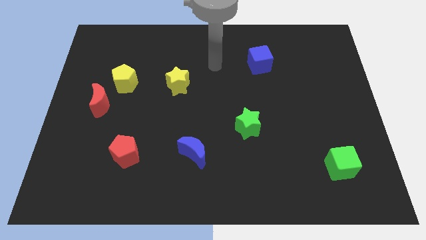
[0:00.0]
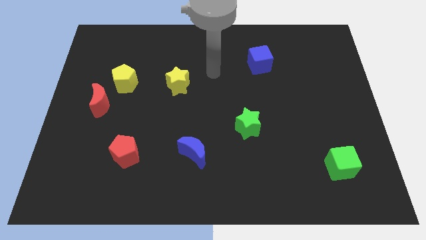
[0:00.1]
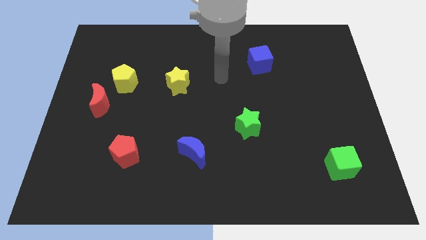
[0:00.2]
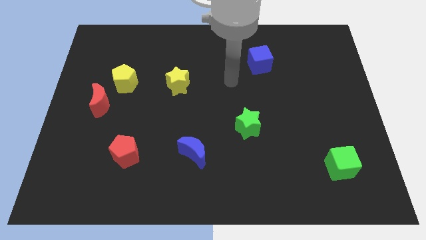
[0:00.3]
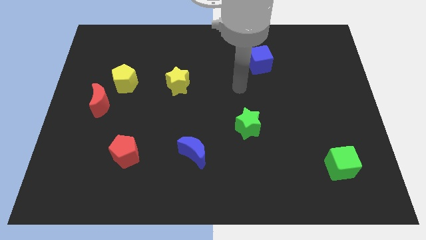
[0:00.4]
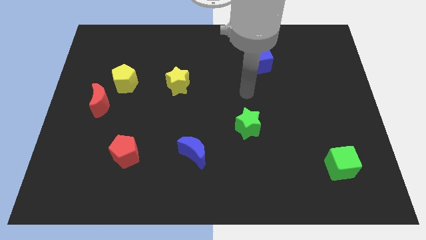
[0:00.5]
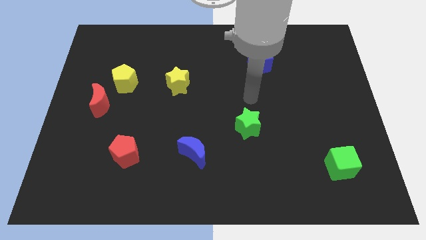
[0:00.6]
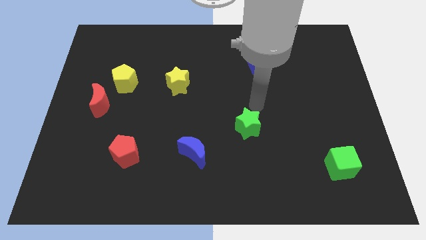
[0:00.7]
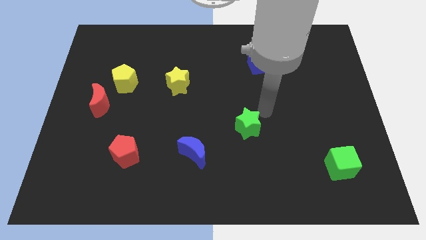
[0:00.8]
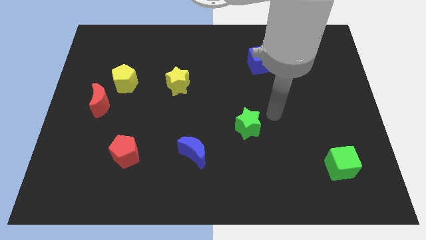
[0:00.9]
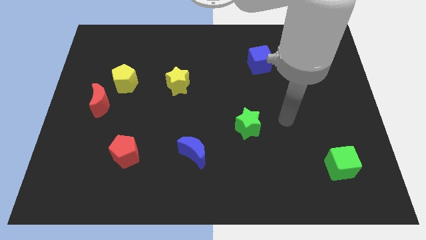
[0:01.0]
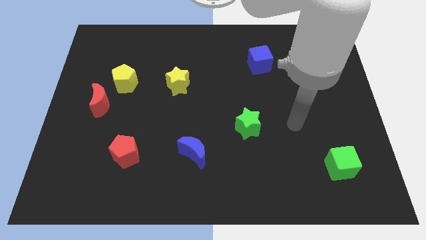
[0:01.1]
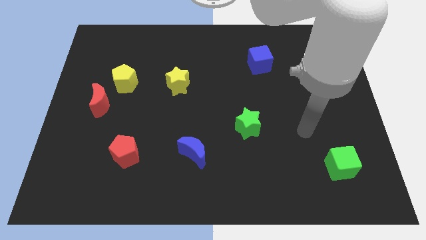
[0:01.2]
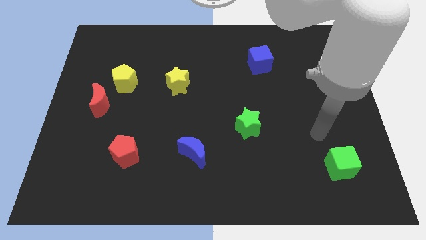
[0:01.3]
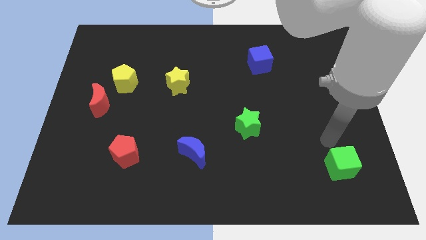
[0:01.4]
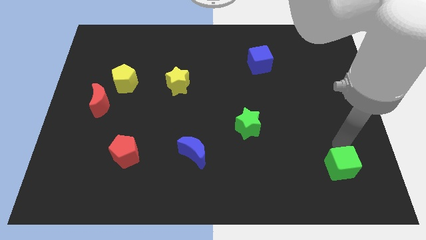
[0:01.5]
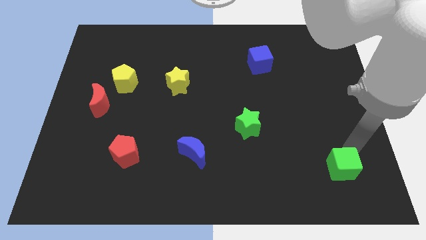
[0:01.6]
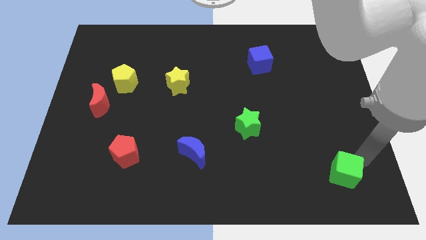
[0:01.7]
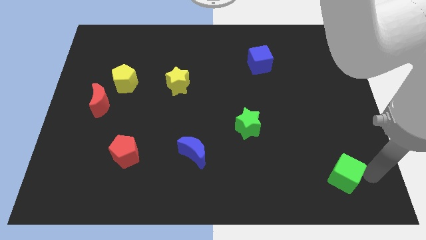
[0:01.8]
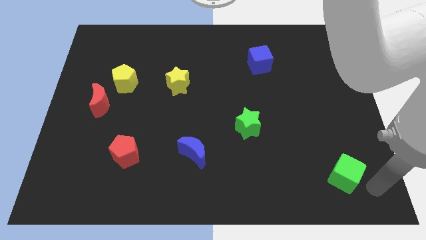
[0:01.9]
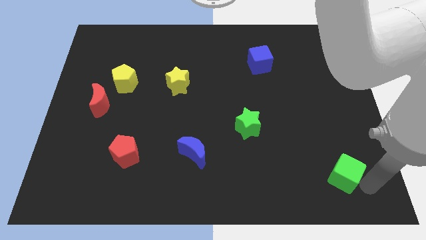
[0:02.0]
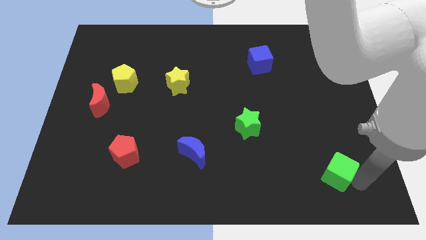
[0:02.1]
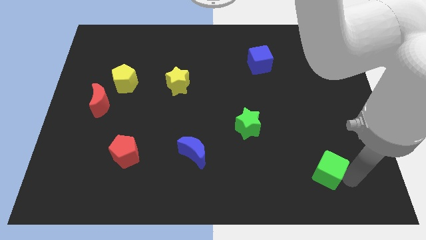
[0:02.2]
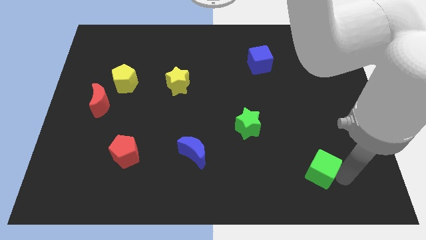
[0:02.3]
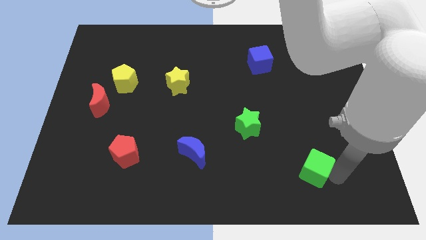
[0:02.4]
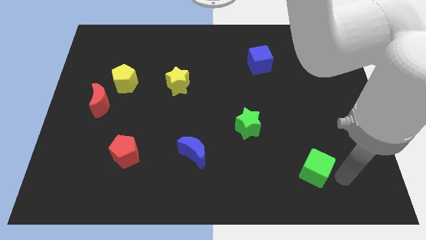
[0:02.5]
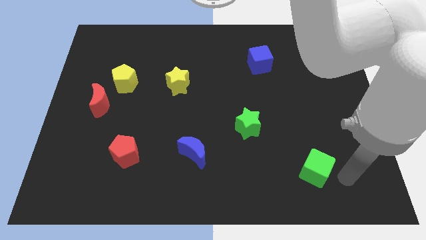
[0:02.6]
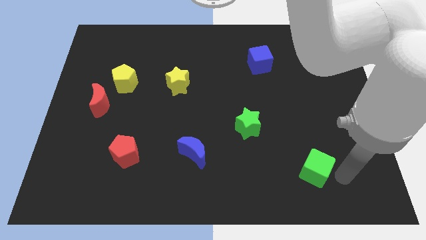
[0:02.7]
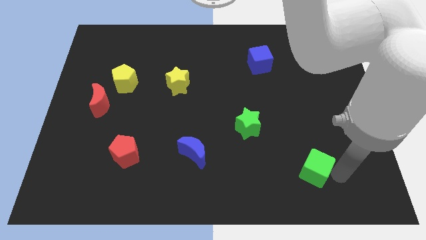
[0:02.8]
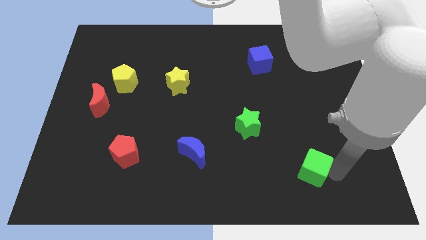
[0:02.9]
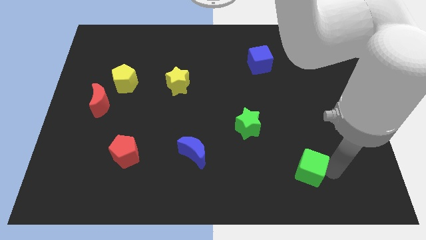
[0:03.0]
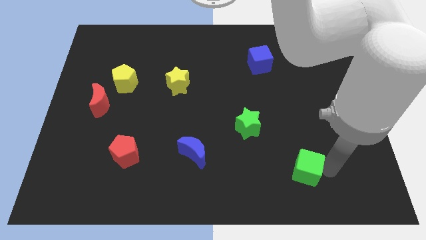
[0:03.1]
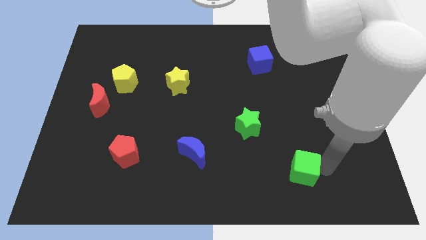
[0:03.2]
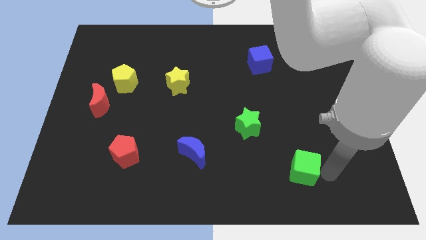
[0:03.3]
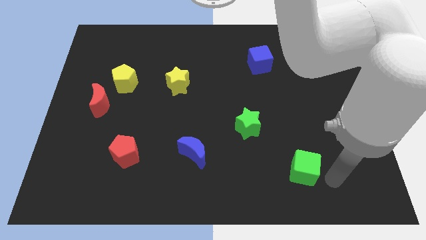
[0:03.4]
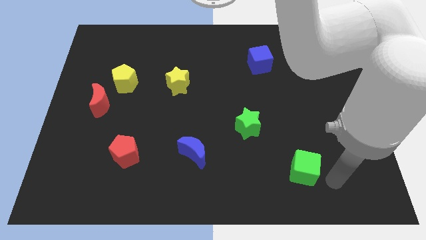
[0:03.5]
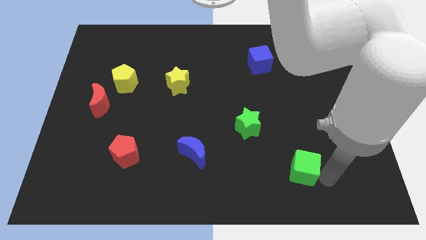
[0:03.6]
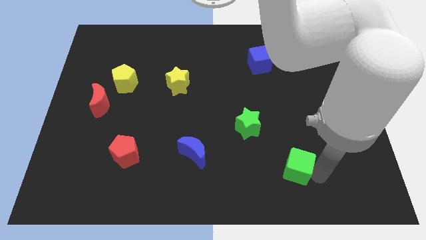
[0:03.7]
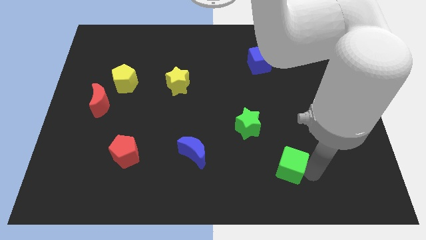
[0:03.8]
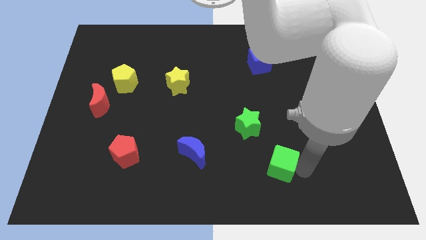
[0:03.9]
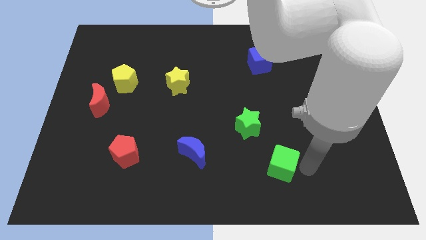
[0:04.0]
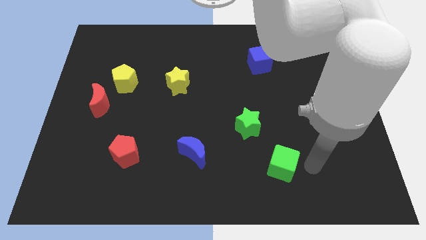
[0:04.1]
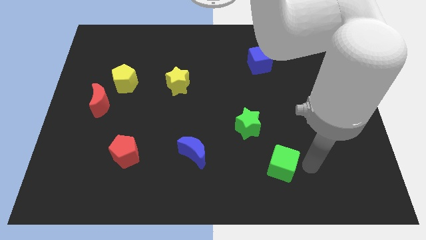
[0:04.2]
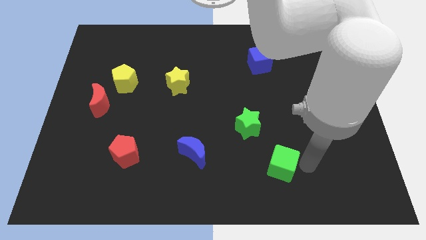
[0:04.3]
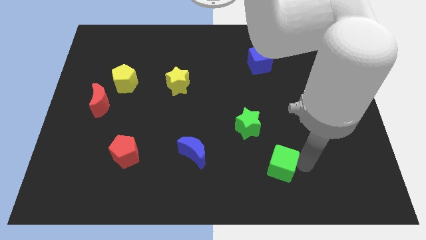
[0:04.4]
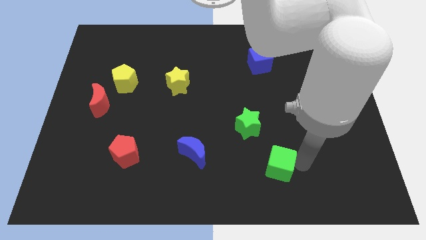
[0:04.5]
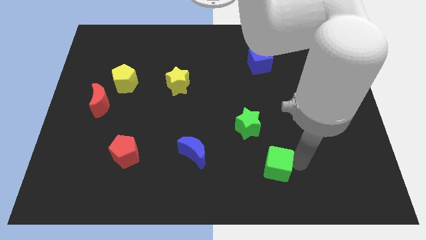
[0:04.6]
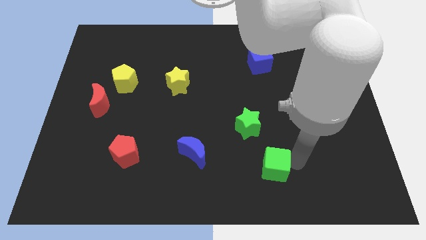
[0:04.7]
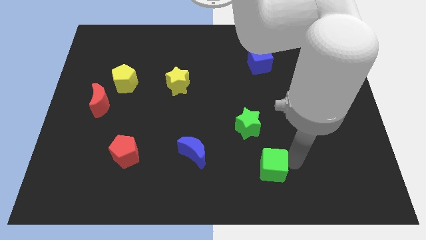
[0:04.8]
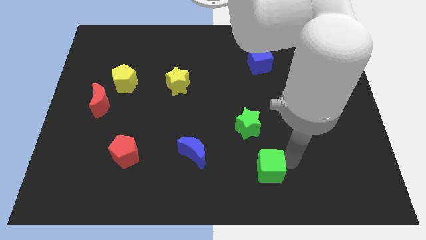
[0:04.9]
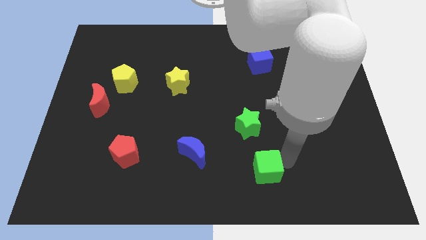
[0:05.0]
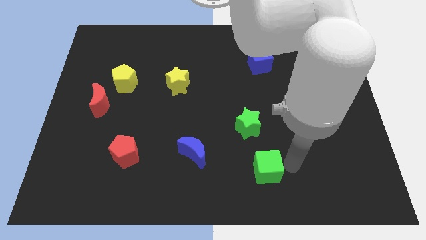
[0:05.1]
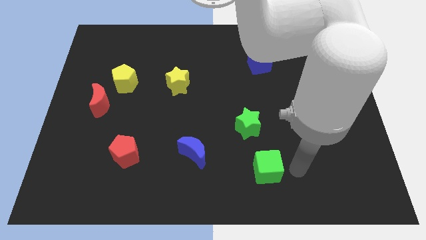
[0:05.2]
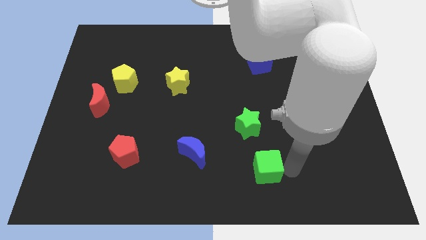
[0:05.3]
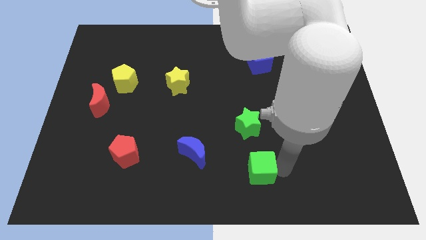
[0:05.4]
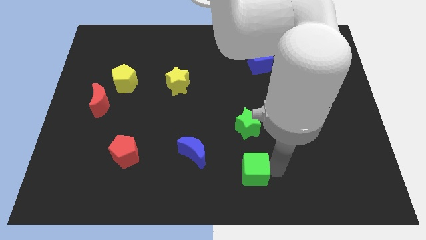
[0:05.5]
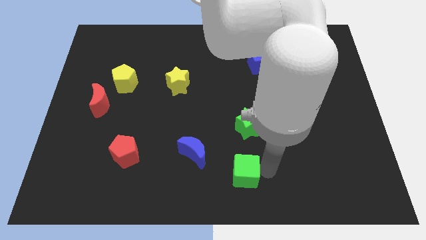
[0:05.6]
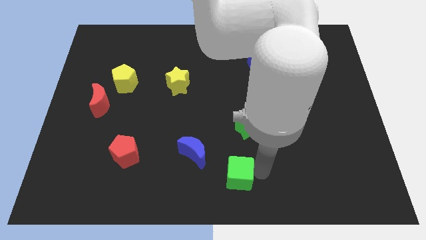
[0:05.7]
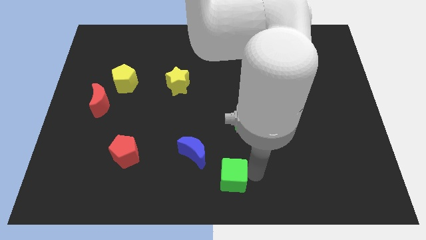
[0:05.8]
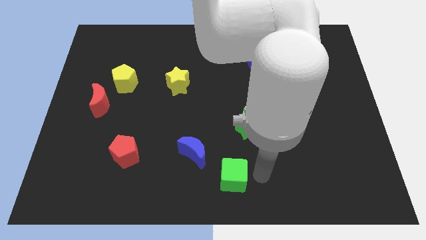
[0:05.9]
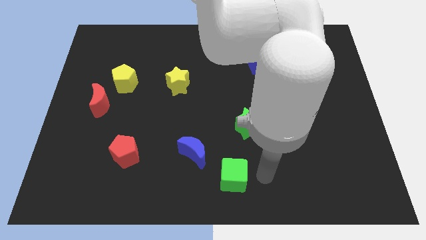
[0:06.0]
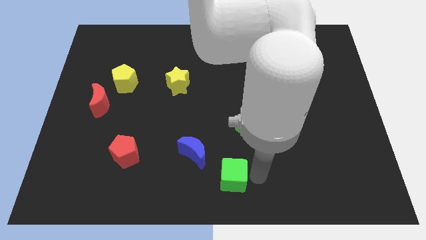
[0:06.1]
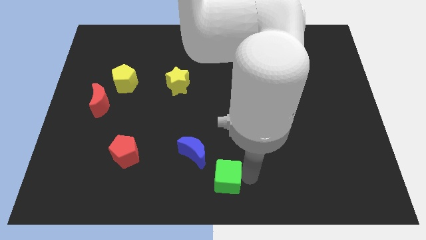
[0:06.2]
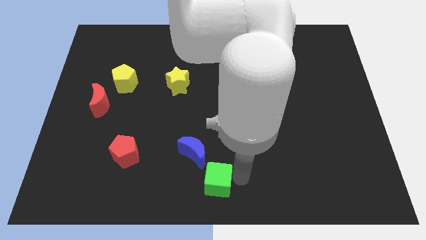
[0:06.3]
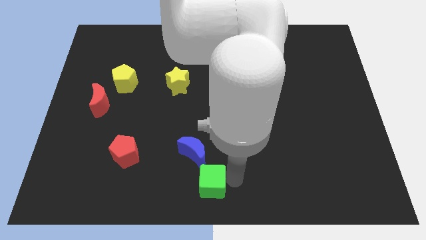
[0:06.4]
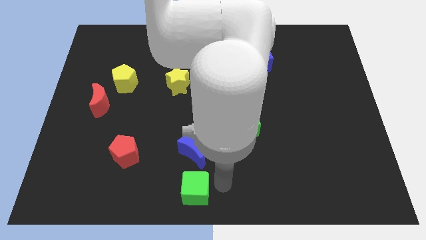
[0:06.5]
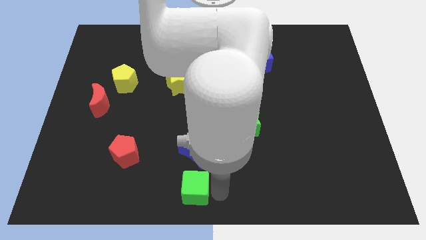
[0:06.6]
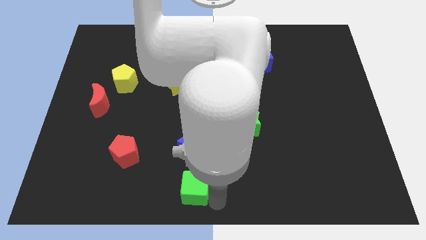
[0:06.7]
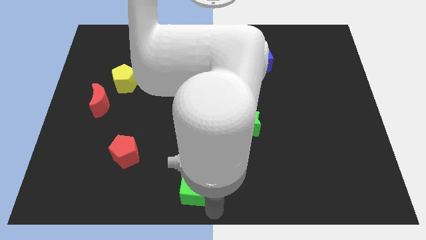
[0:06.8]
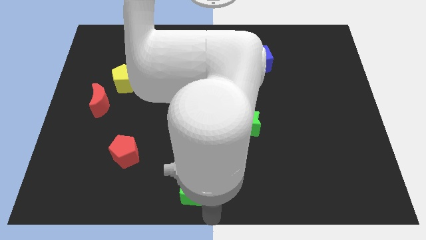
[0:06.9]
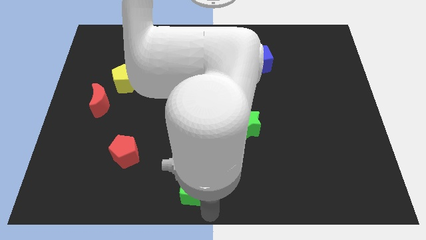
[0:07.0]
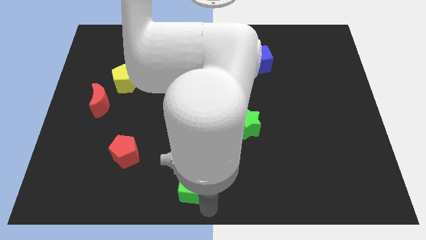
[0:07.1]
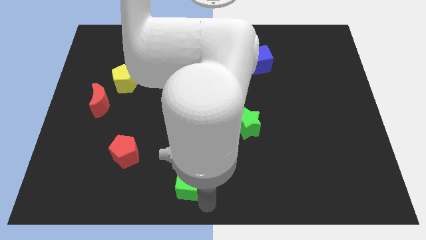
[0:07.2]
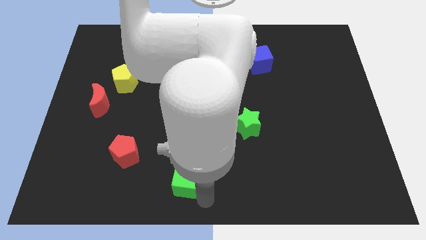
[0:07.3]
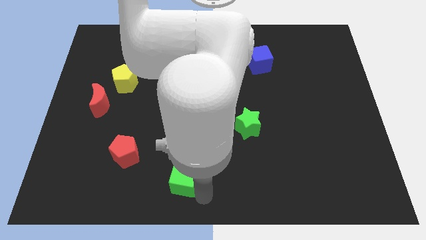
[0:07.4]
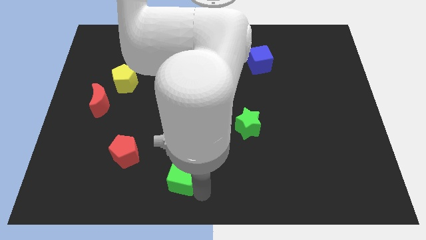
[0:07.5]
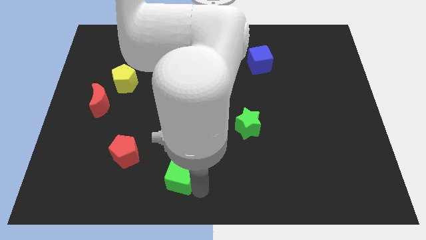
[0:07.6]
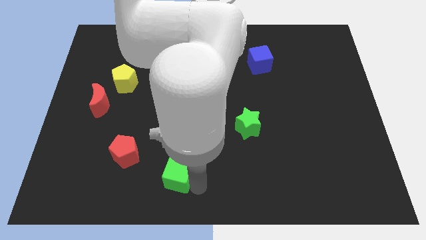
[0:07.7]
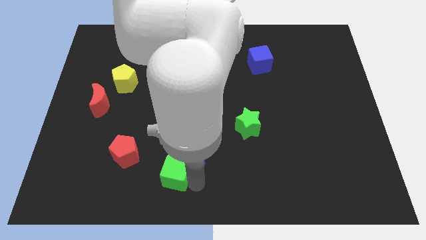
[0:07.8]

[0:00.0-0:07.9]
move the green cube just right of the red pentagon
